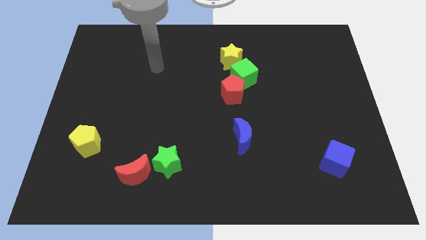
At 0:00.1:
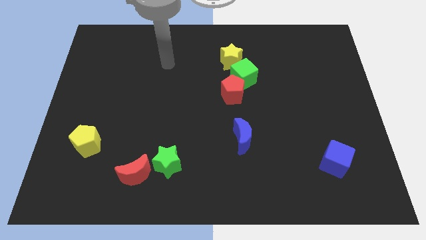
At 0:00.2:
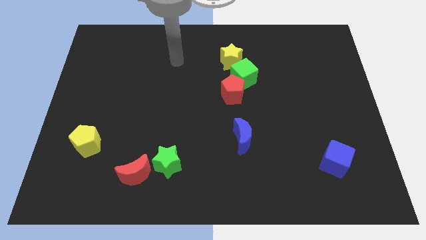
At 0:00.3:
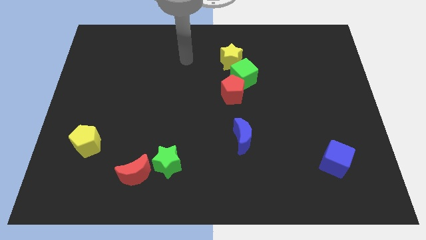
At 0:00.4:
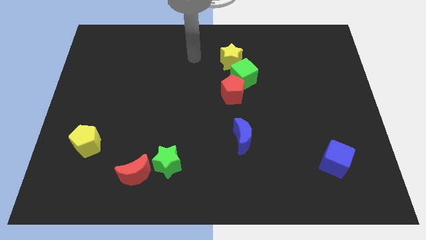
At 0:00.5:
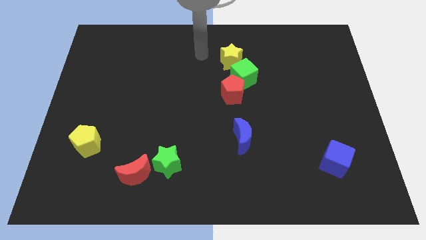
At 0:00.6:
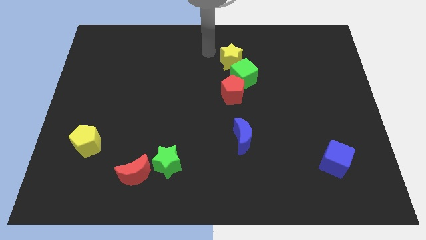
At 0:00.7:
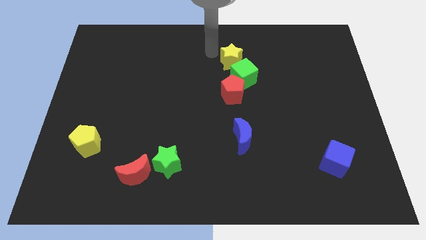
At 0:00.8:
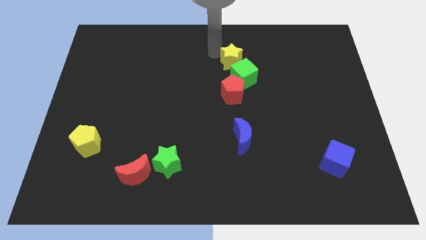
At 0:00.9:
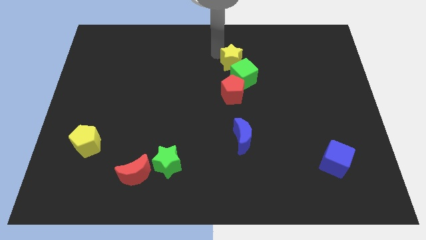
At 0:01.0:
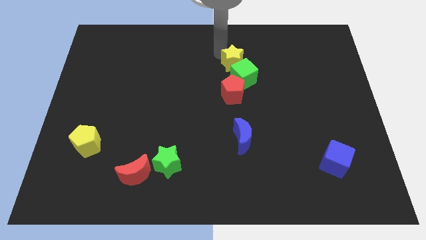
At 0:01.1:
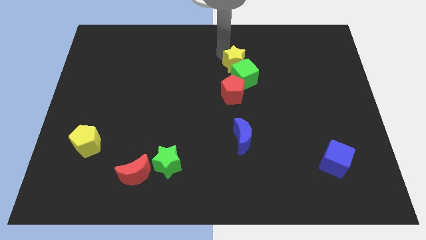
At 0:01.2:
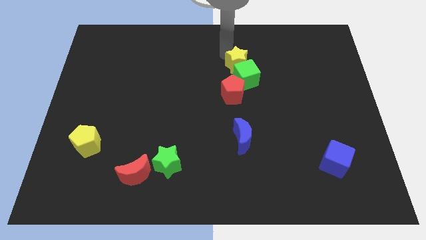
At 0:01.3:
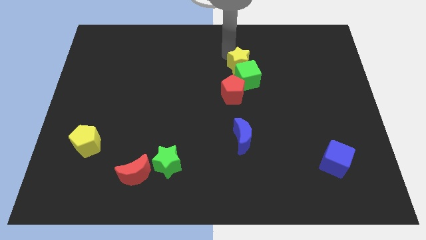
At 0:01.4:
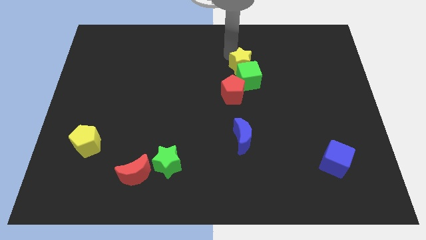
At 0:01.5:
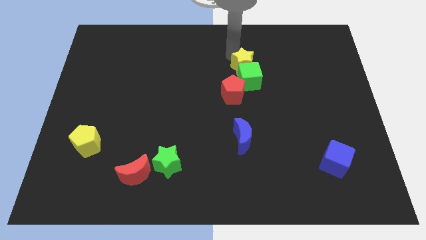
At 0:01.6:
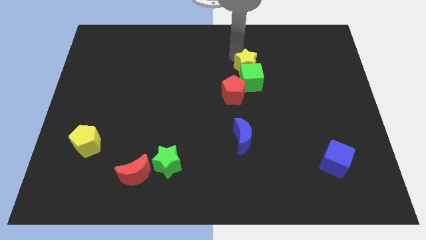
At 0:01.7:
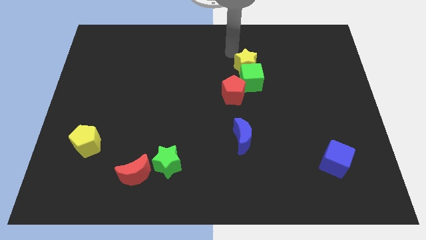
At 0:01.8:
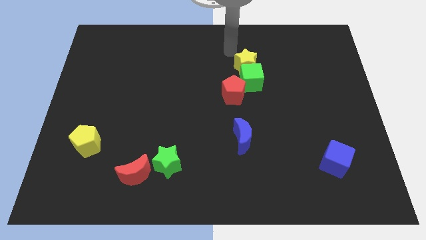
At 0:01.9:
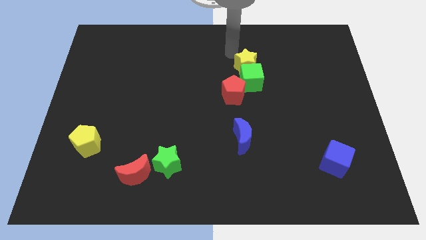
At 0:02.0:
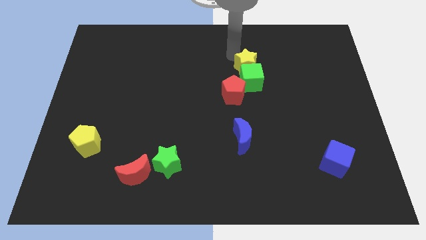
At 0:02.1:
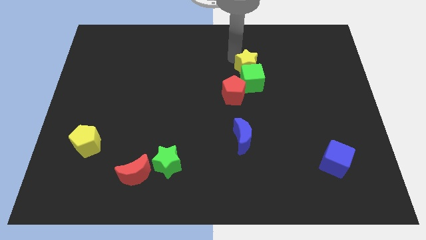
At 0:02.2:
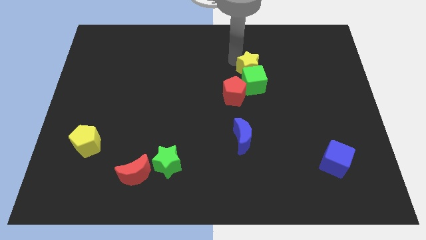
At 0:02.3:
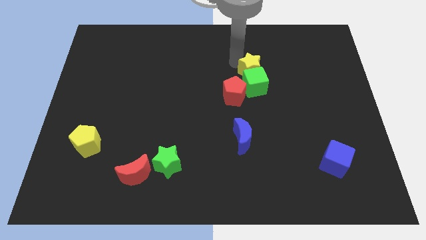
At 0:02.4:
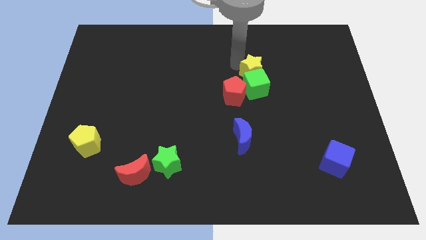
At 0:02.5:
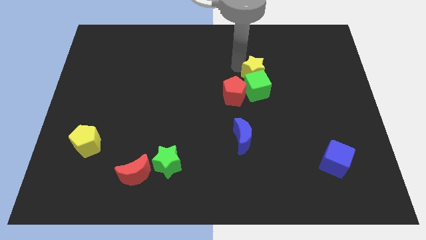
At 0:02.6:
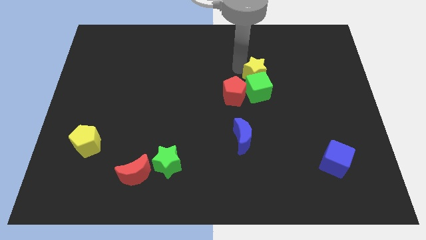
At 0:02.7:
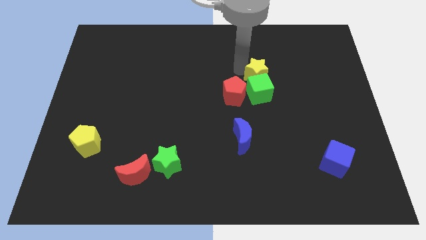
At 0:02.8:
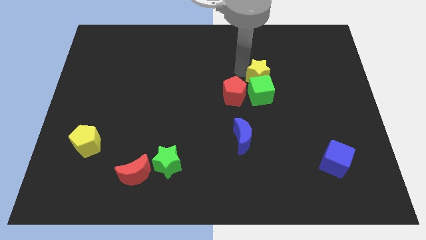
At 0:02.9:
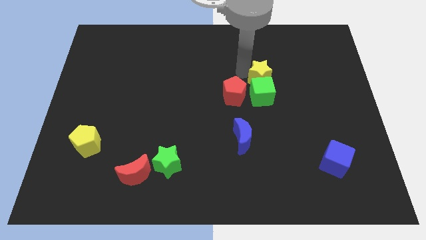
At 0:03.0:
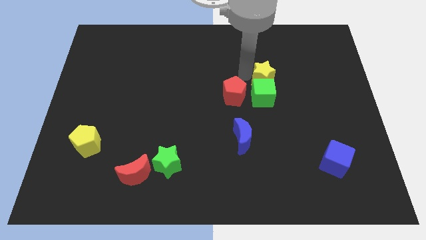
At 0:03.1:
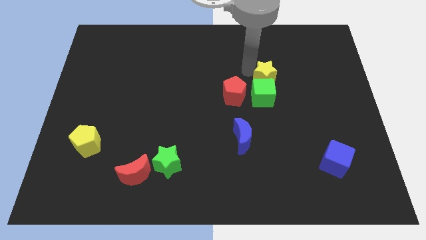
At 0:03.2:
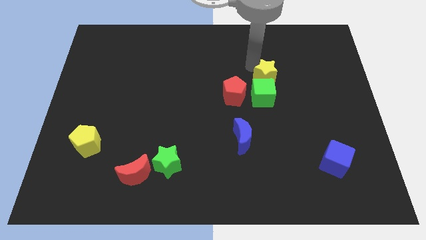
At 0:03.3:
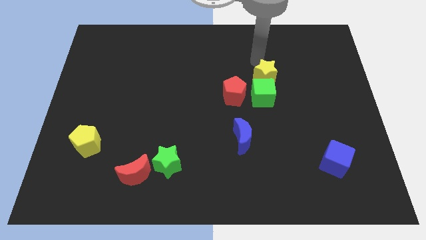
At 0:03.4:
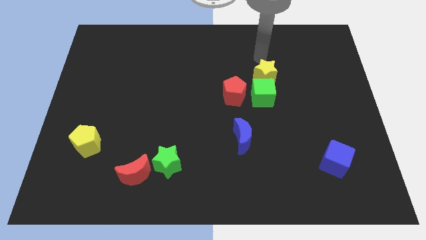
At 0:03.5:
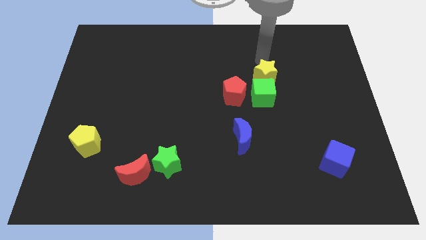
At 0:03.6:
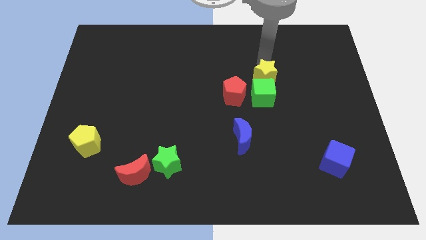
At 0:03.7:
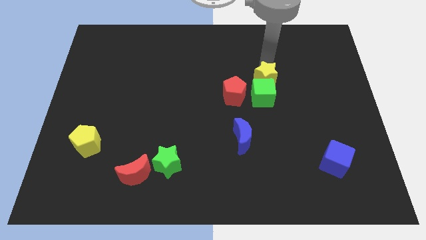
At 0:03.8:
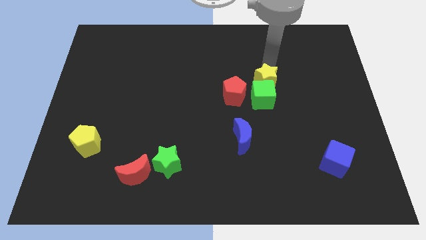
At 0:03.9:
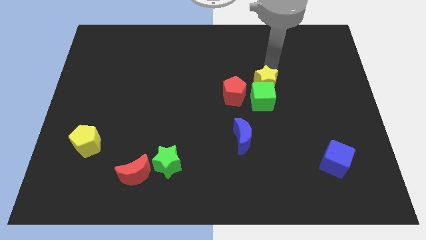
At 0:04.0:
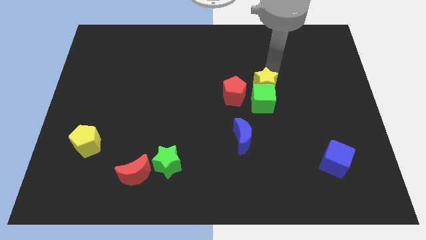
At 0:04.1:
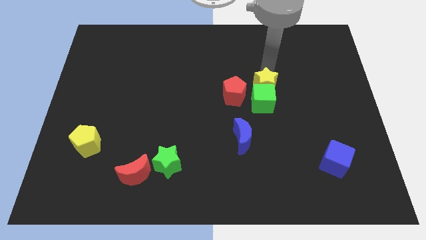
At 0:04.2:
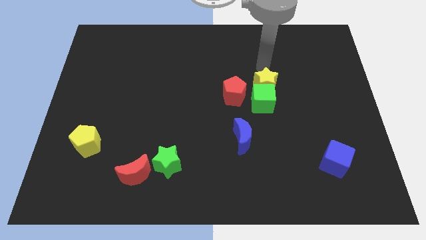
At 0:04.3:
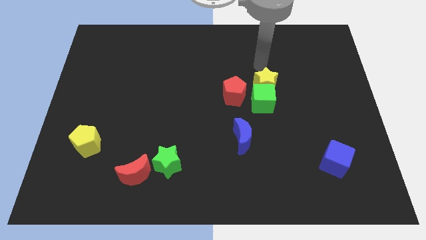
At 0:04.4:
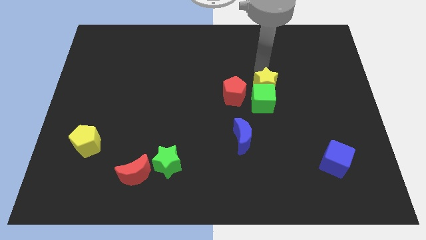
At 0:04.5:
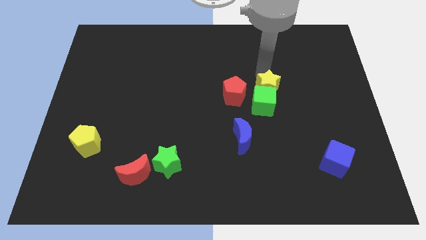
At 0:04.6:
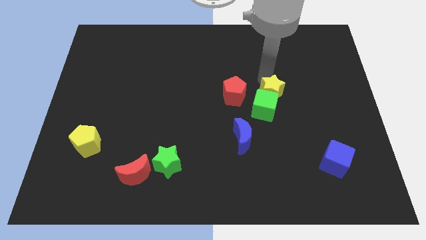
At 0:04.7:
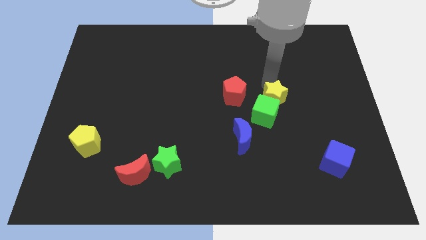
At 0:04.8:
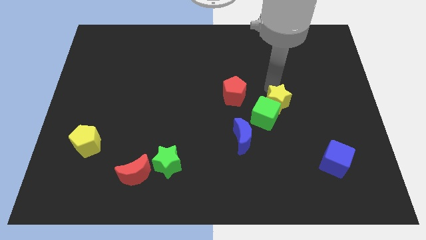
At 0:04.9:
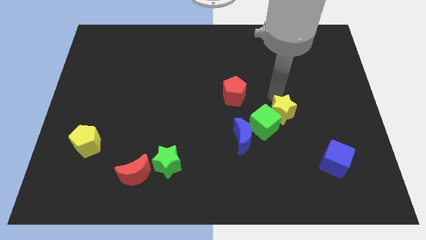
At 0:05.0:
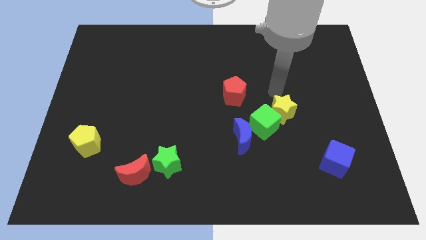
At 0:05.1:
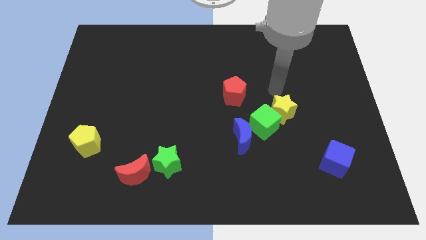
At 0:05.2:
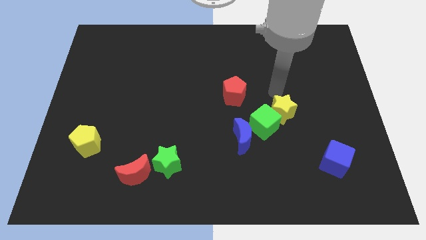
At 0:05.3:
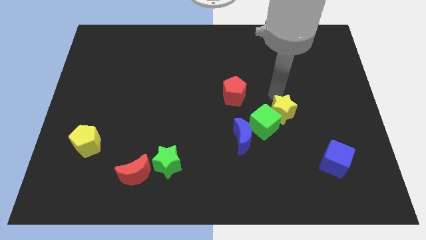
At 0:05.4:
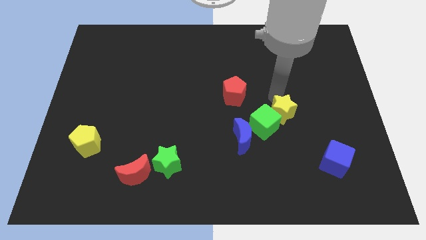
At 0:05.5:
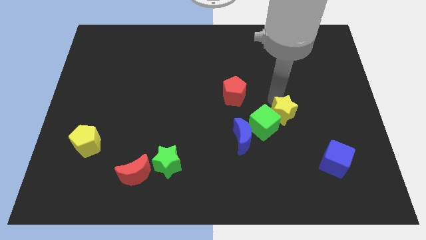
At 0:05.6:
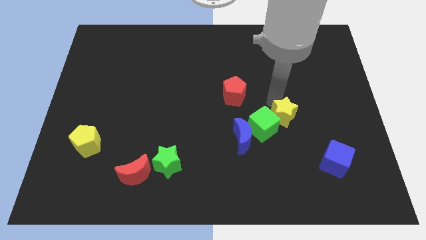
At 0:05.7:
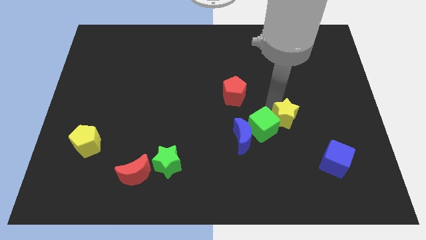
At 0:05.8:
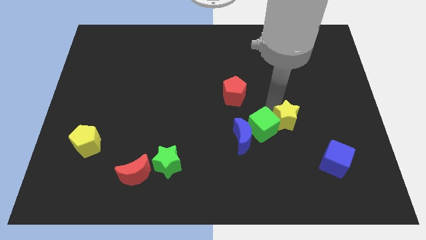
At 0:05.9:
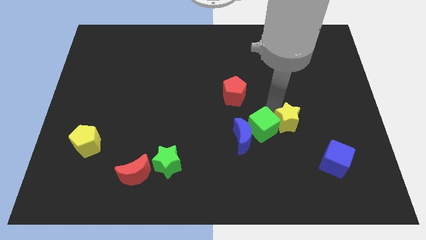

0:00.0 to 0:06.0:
slide the yellow star to the right side of the blue moon

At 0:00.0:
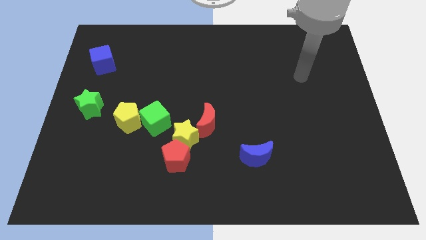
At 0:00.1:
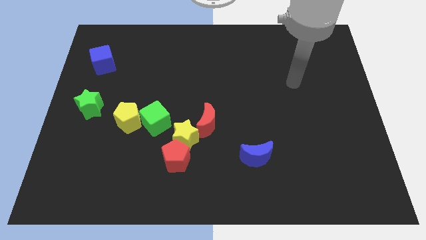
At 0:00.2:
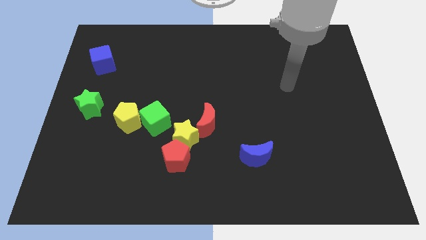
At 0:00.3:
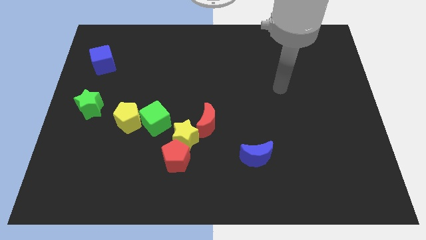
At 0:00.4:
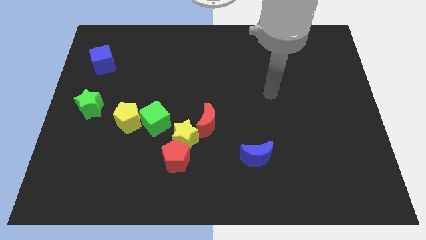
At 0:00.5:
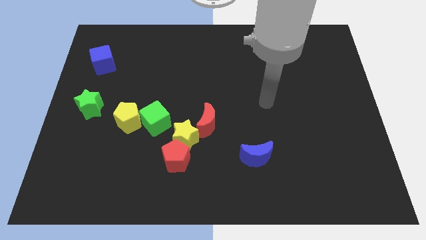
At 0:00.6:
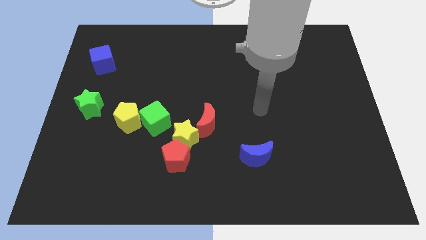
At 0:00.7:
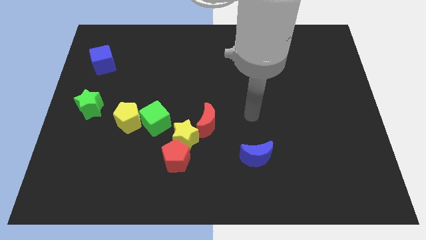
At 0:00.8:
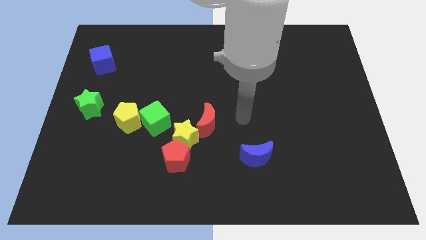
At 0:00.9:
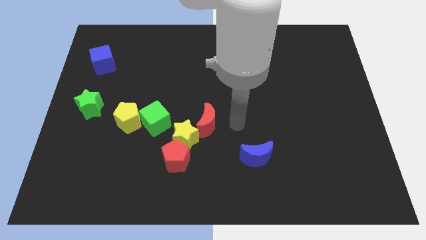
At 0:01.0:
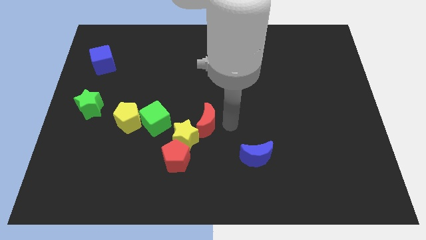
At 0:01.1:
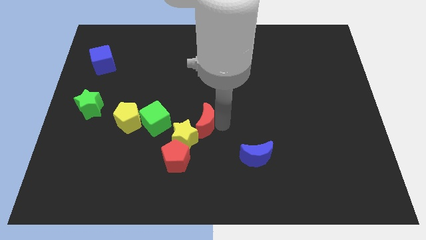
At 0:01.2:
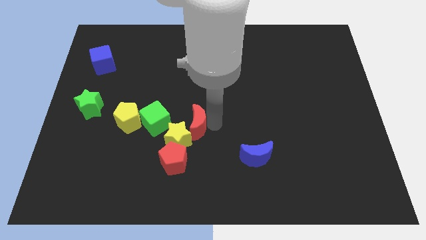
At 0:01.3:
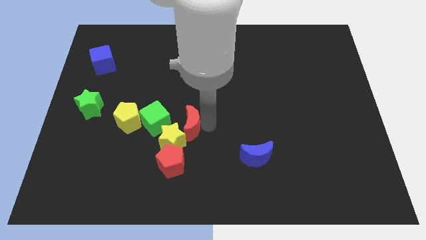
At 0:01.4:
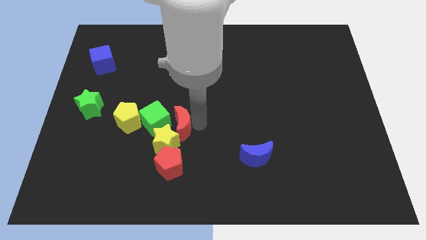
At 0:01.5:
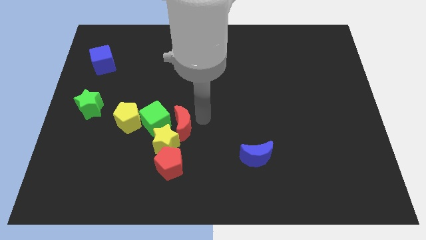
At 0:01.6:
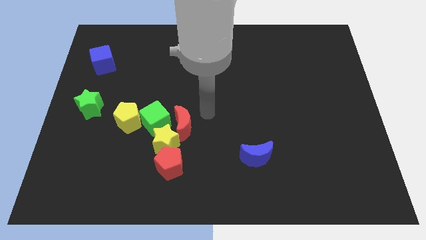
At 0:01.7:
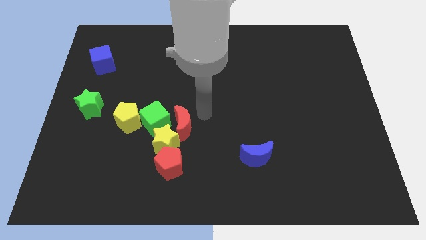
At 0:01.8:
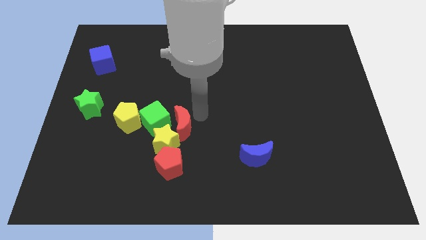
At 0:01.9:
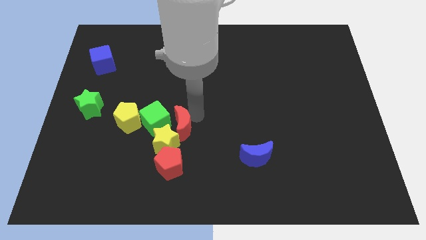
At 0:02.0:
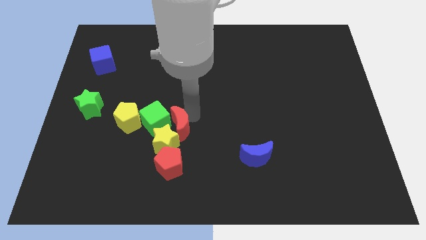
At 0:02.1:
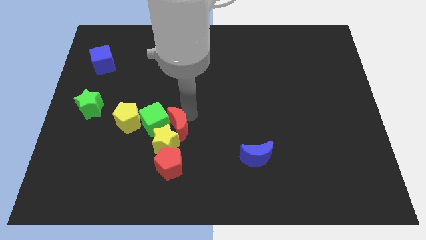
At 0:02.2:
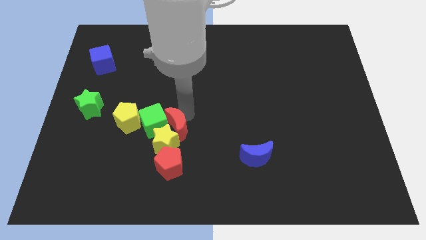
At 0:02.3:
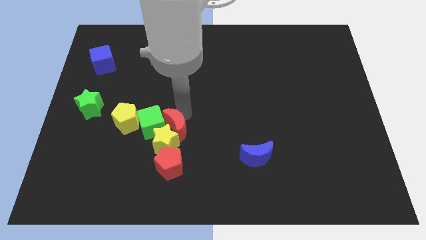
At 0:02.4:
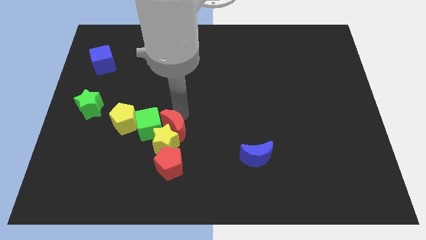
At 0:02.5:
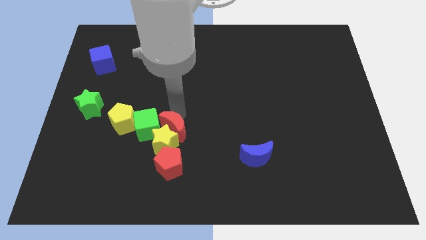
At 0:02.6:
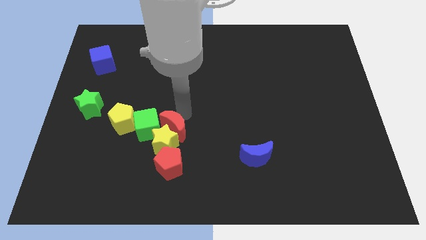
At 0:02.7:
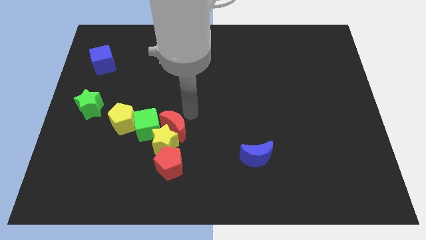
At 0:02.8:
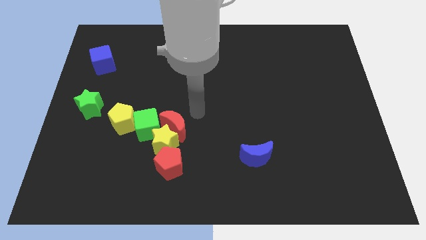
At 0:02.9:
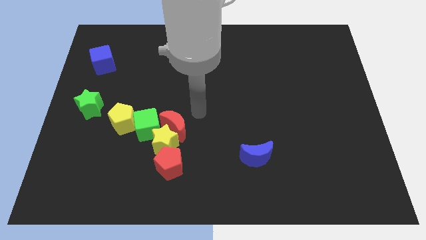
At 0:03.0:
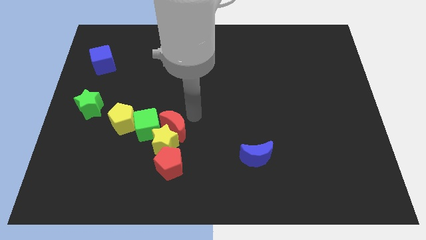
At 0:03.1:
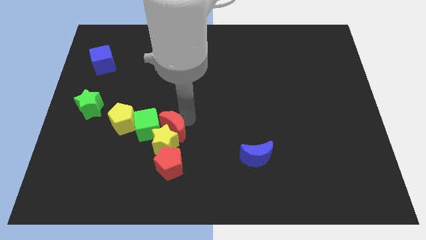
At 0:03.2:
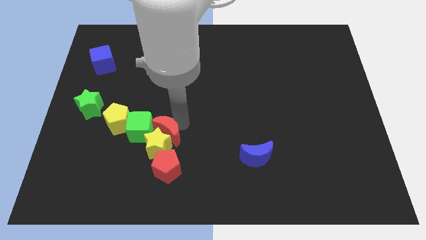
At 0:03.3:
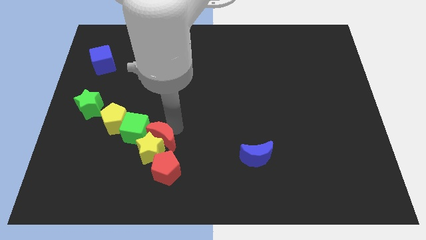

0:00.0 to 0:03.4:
push the red moon to the top left side of the red pentagon
